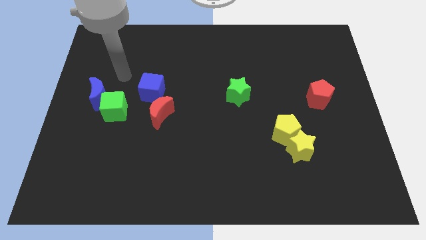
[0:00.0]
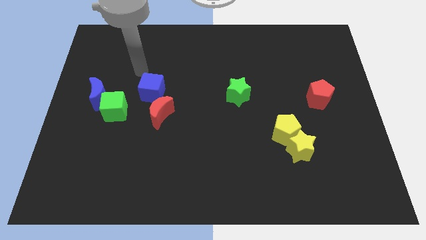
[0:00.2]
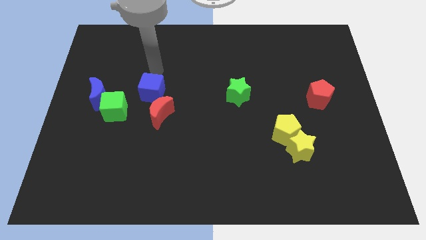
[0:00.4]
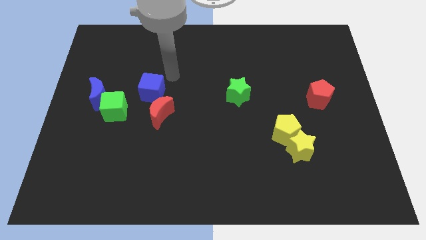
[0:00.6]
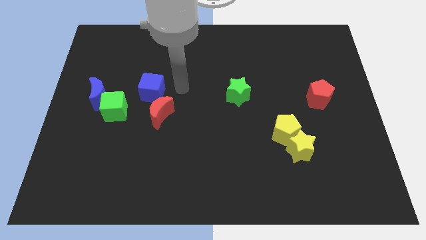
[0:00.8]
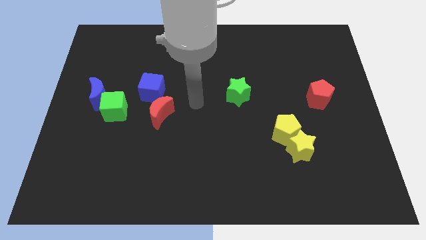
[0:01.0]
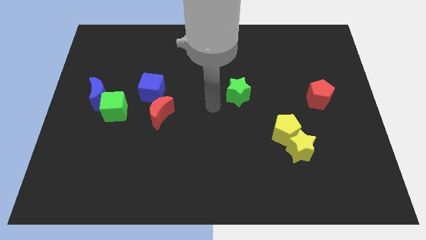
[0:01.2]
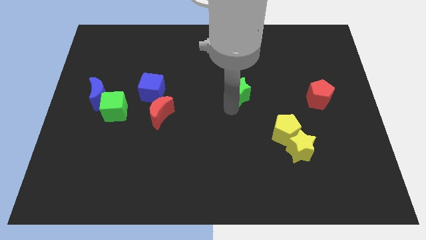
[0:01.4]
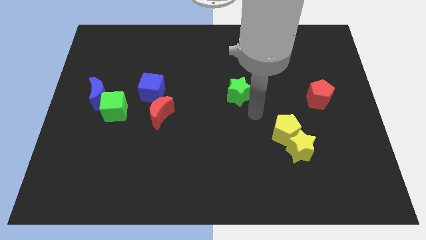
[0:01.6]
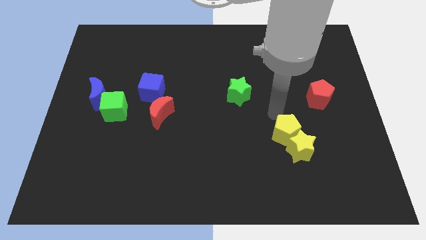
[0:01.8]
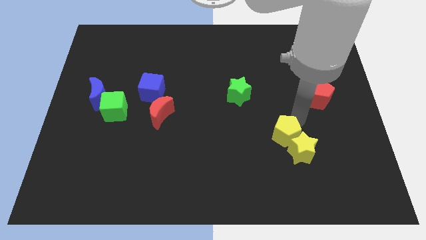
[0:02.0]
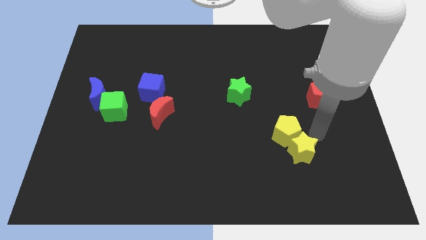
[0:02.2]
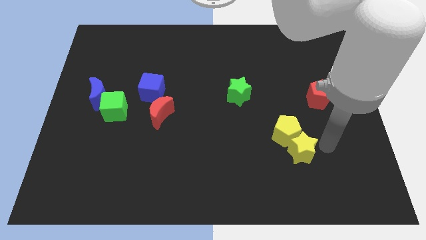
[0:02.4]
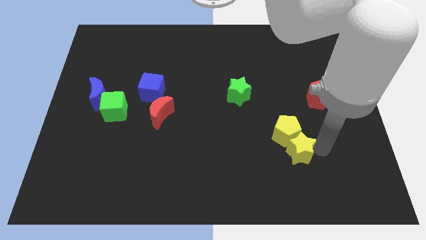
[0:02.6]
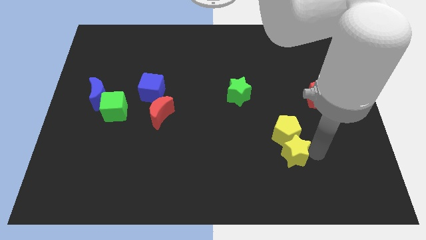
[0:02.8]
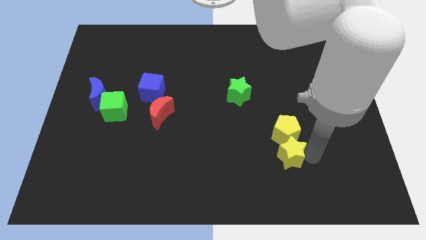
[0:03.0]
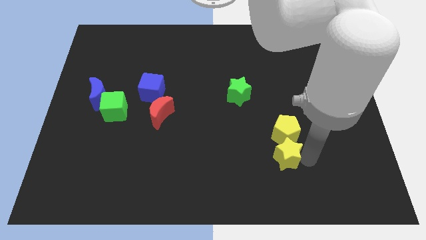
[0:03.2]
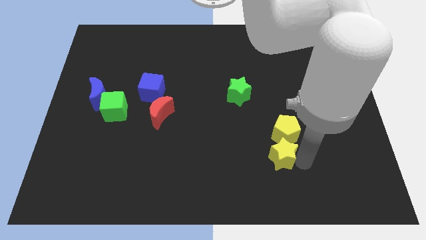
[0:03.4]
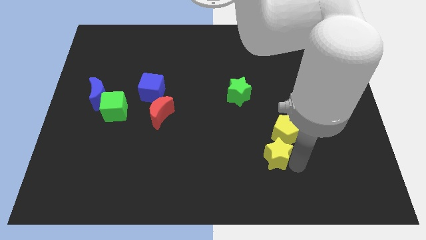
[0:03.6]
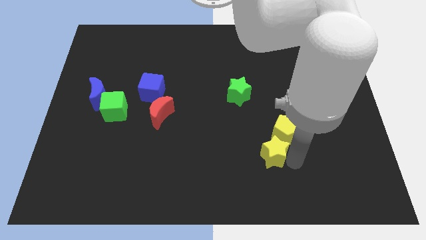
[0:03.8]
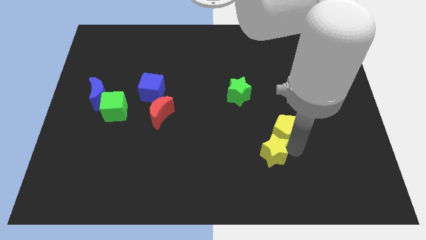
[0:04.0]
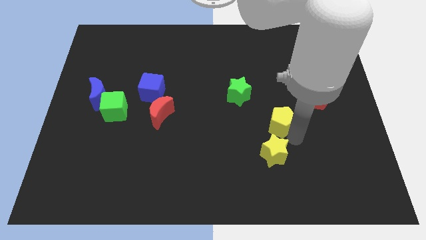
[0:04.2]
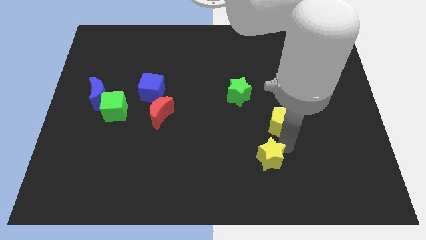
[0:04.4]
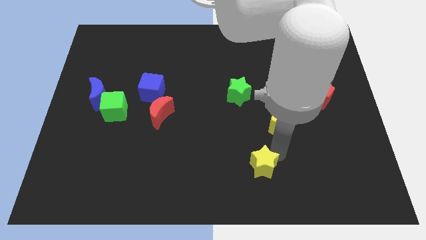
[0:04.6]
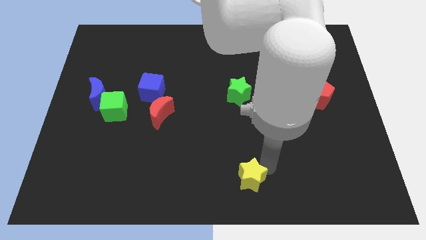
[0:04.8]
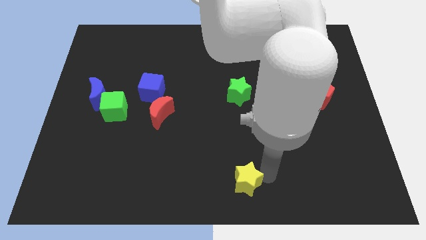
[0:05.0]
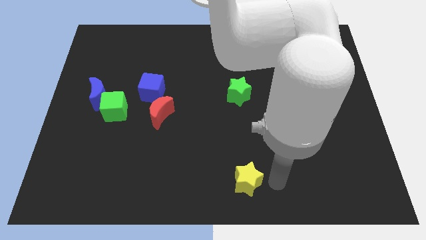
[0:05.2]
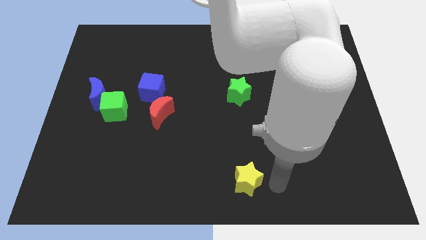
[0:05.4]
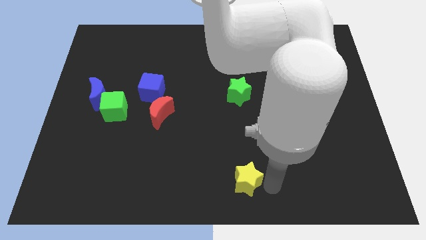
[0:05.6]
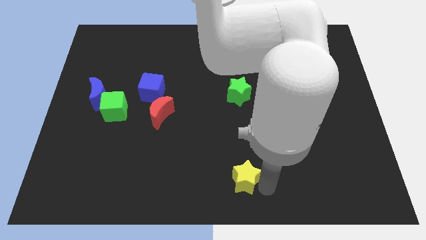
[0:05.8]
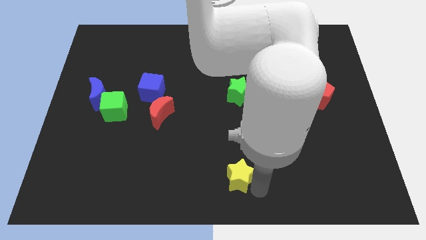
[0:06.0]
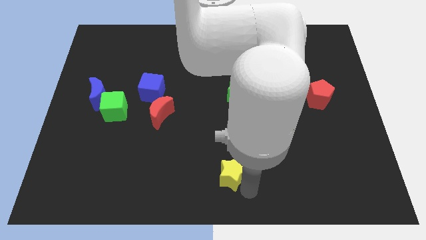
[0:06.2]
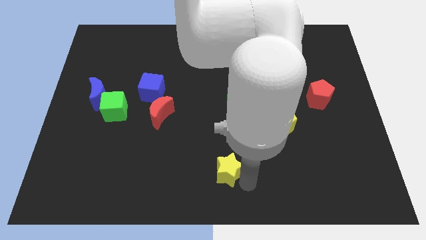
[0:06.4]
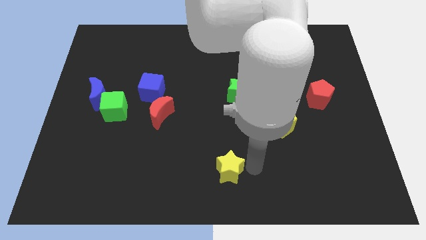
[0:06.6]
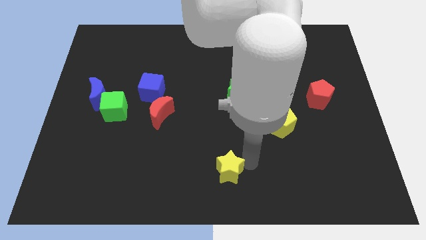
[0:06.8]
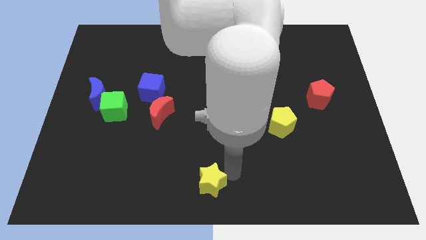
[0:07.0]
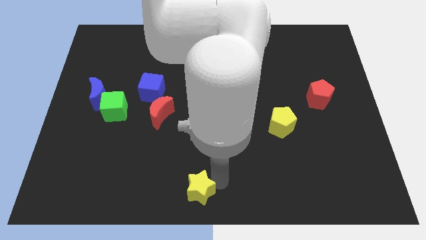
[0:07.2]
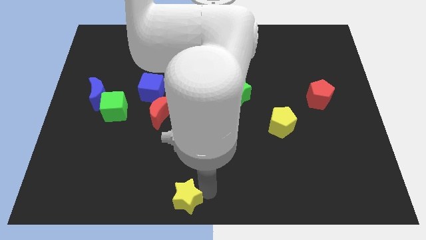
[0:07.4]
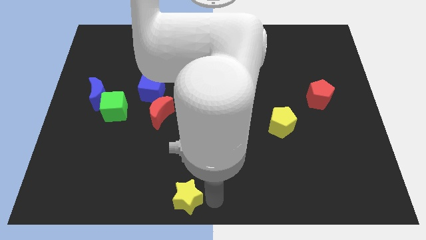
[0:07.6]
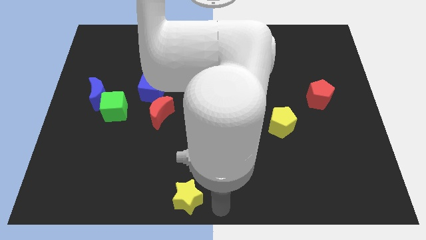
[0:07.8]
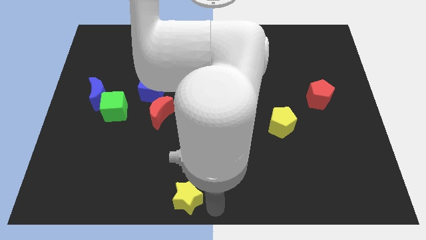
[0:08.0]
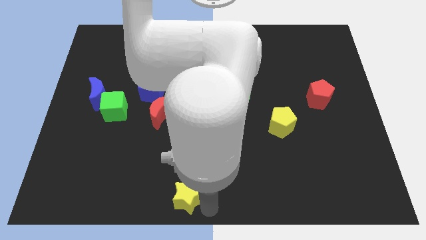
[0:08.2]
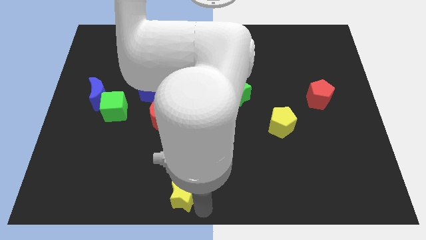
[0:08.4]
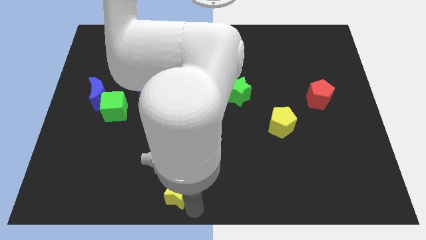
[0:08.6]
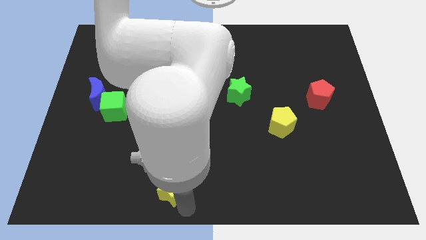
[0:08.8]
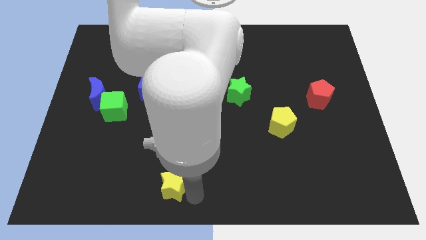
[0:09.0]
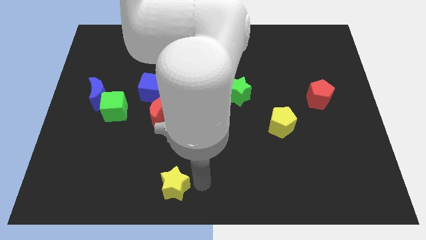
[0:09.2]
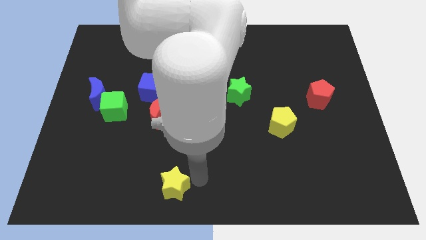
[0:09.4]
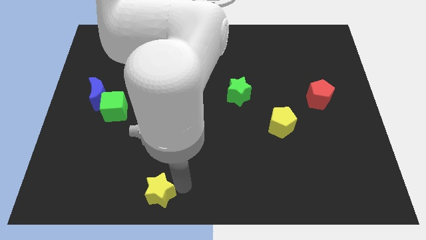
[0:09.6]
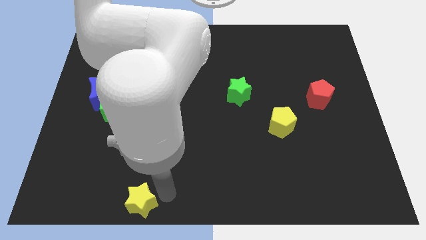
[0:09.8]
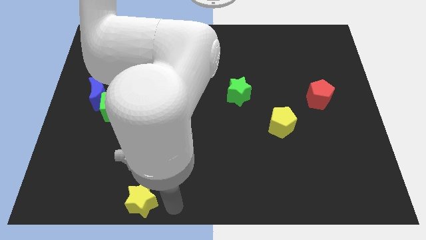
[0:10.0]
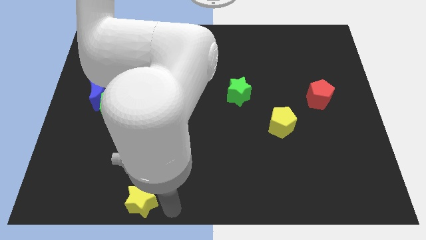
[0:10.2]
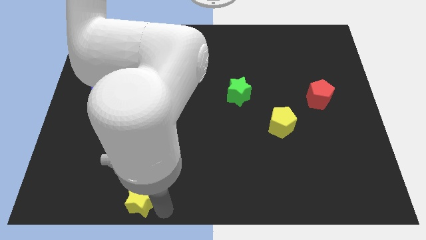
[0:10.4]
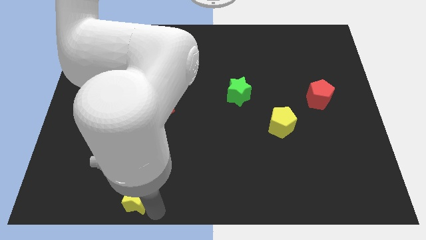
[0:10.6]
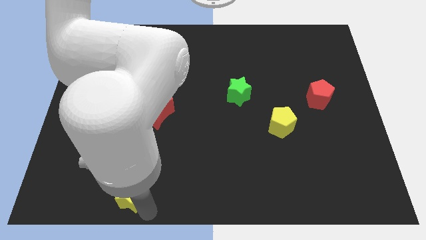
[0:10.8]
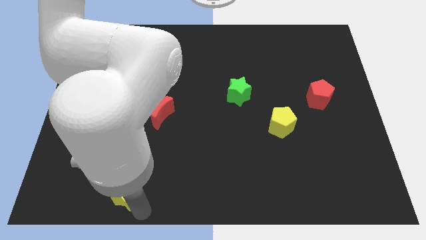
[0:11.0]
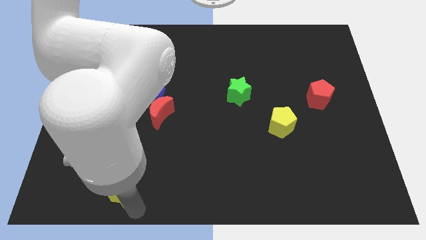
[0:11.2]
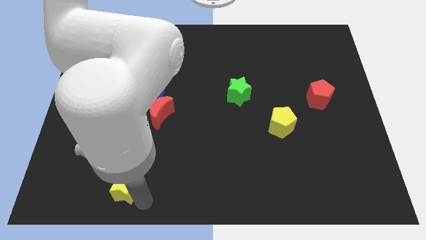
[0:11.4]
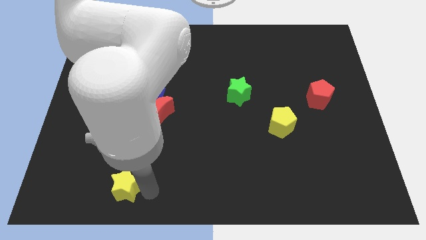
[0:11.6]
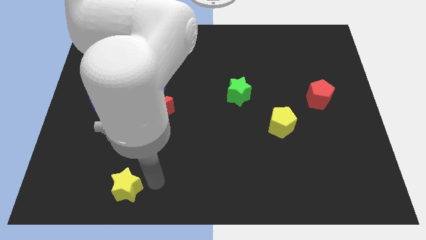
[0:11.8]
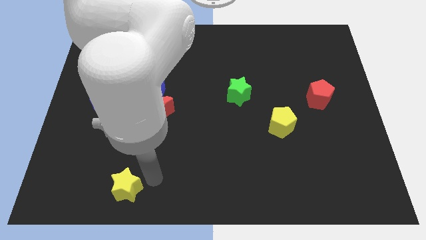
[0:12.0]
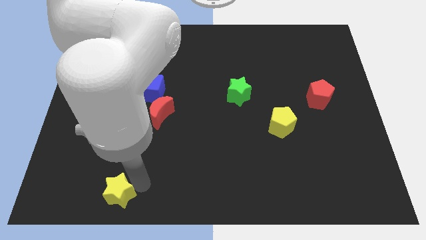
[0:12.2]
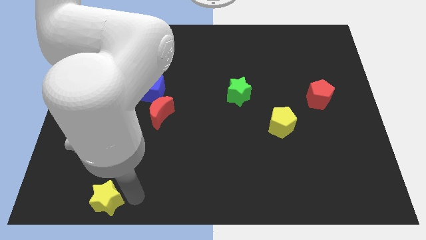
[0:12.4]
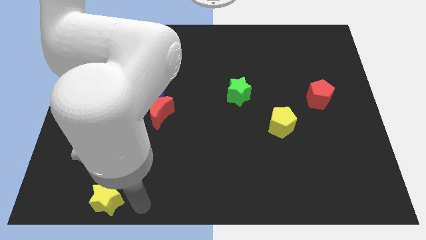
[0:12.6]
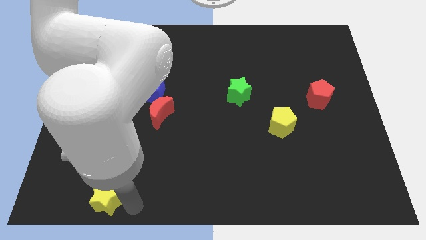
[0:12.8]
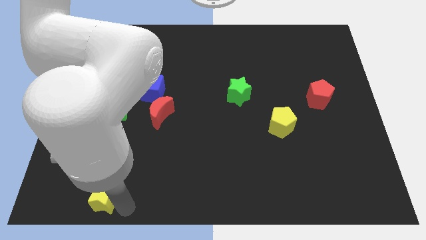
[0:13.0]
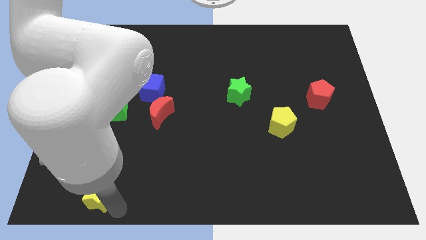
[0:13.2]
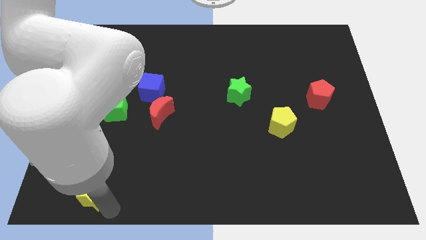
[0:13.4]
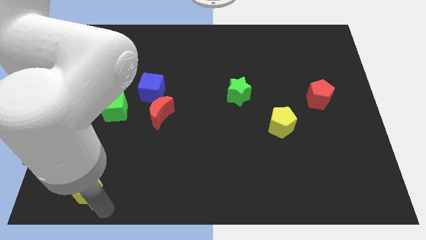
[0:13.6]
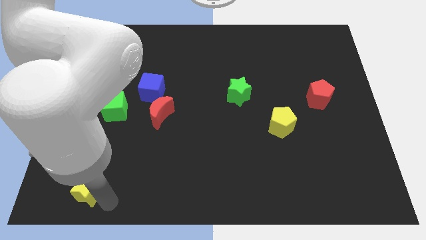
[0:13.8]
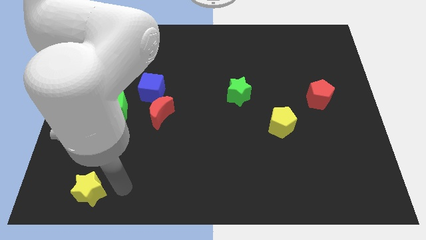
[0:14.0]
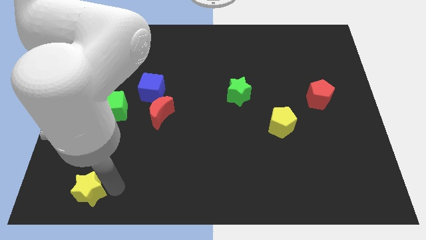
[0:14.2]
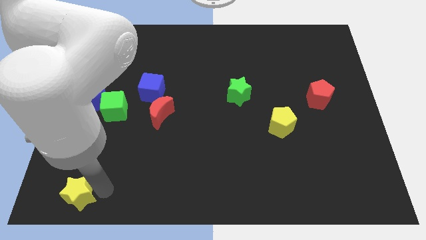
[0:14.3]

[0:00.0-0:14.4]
slide the yellow star to the bottom left corner
